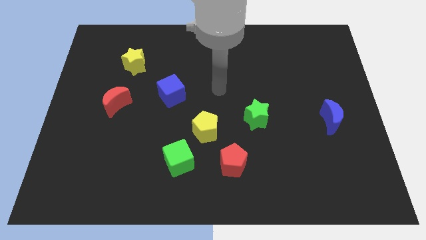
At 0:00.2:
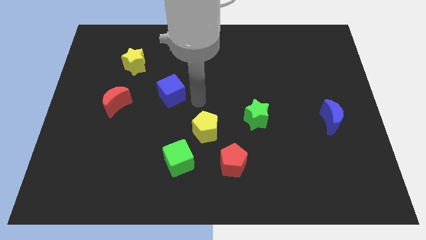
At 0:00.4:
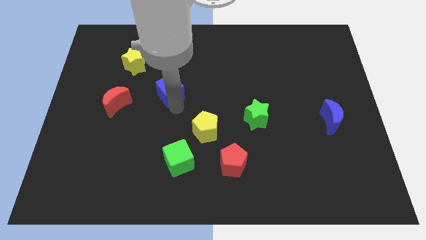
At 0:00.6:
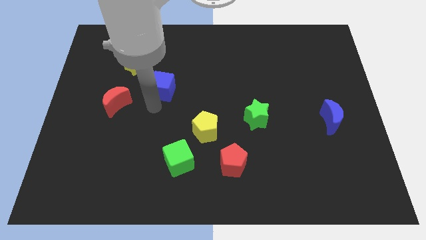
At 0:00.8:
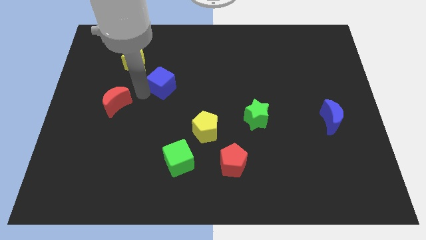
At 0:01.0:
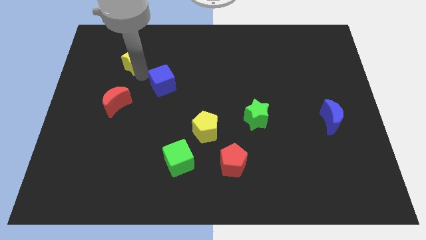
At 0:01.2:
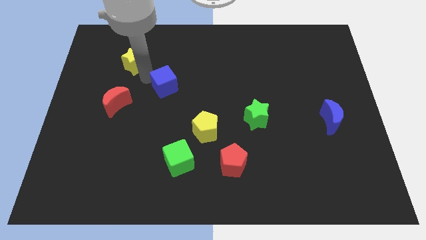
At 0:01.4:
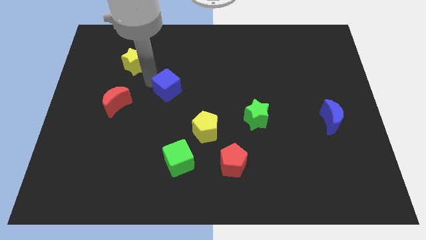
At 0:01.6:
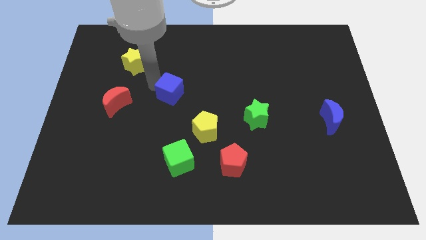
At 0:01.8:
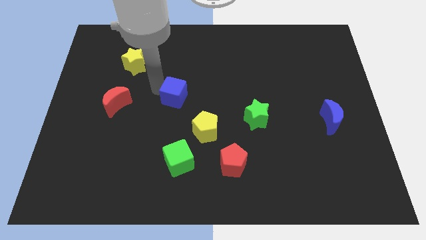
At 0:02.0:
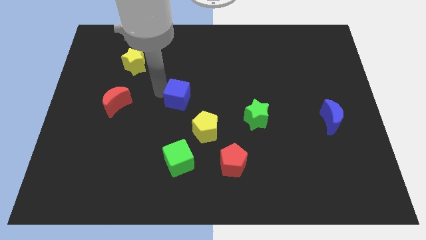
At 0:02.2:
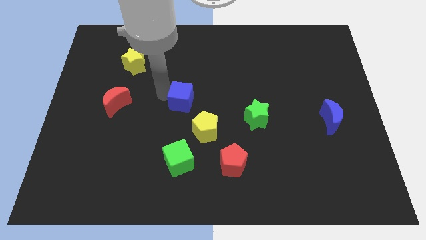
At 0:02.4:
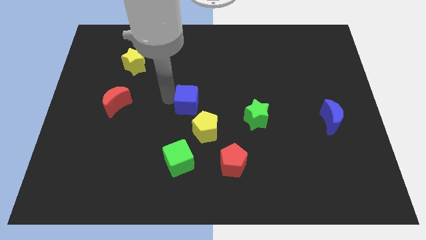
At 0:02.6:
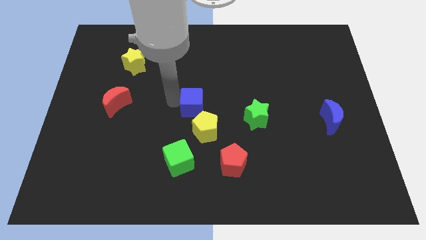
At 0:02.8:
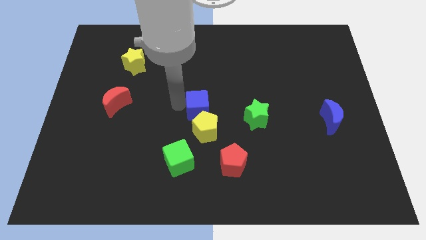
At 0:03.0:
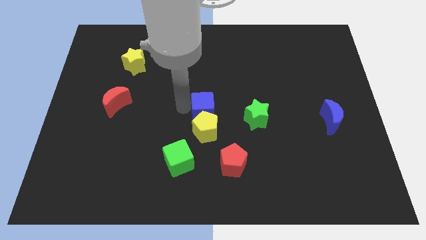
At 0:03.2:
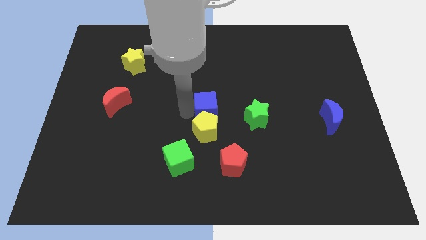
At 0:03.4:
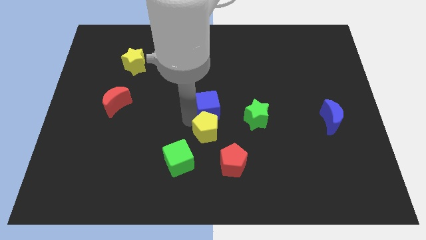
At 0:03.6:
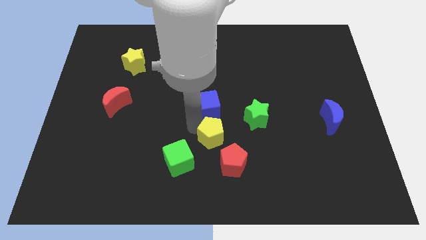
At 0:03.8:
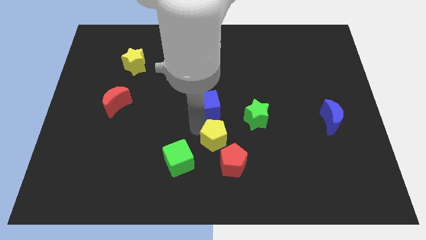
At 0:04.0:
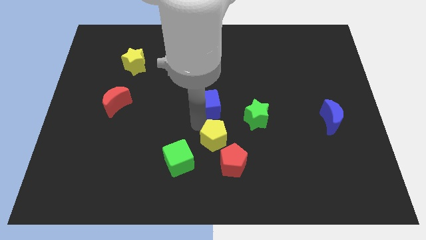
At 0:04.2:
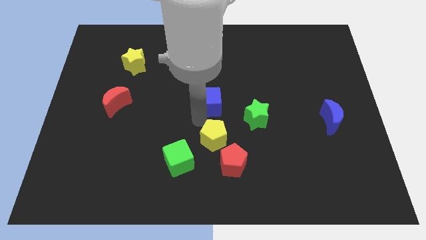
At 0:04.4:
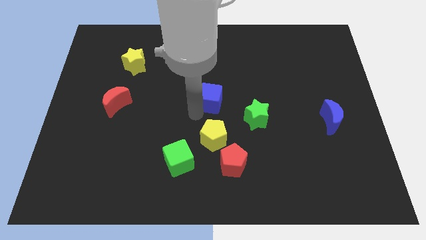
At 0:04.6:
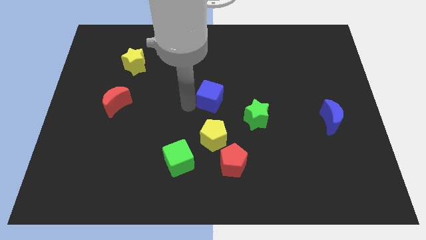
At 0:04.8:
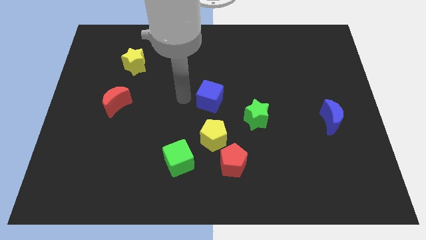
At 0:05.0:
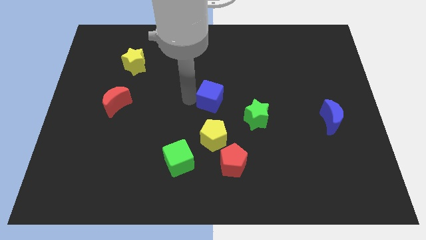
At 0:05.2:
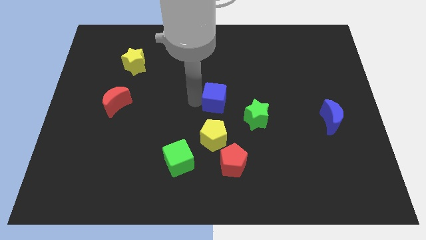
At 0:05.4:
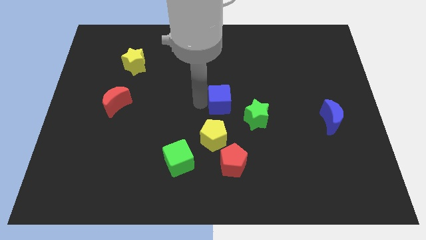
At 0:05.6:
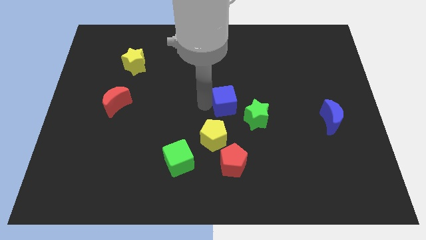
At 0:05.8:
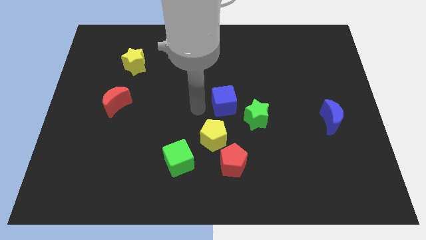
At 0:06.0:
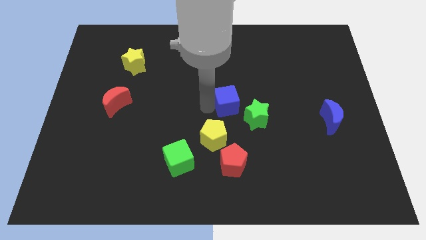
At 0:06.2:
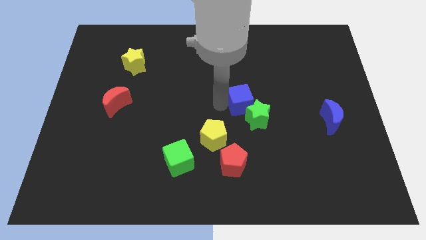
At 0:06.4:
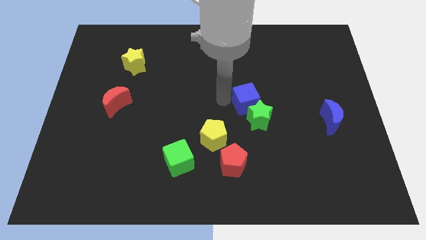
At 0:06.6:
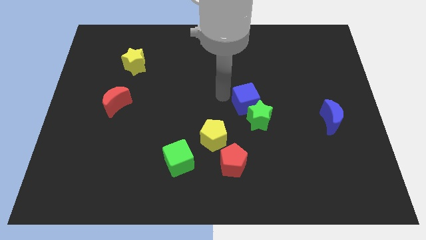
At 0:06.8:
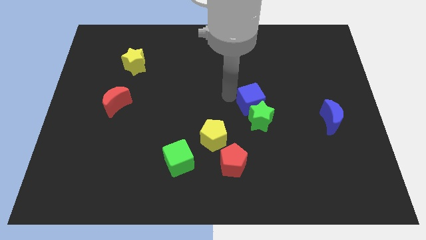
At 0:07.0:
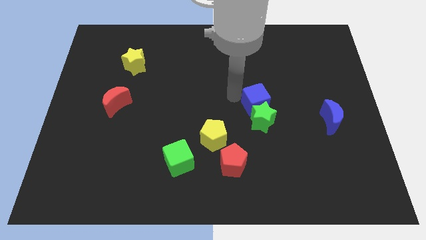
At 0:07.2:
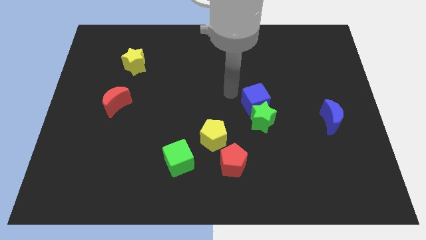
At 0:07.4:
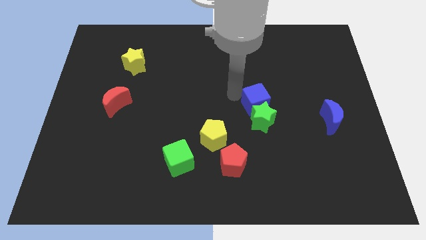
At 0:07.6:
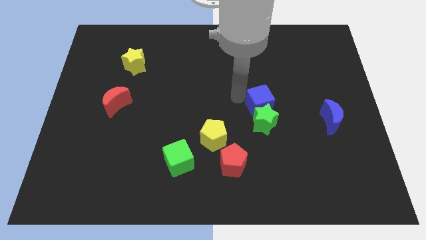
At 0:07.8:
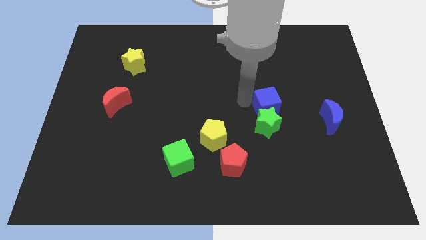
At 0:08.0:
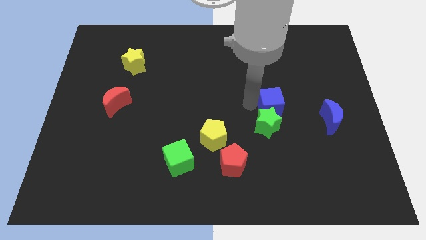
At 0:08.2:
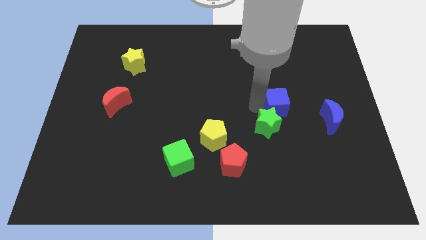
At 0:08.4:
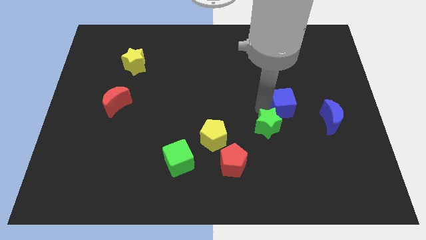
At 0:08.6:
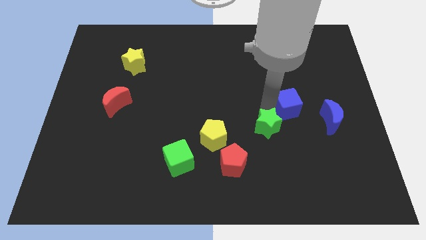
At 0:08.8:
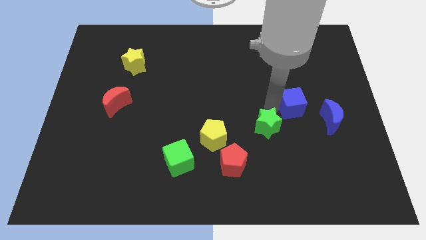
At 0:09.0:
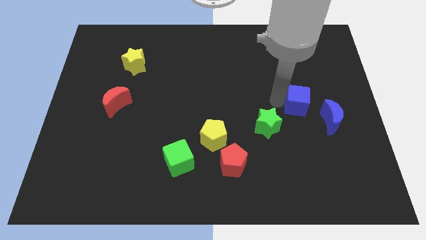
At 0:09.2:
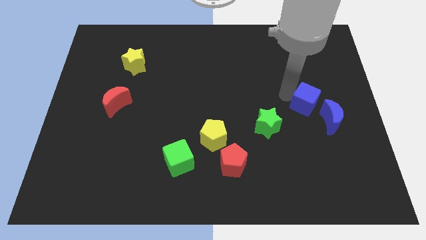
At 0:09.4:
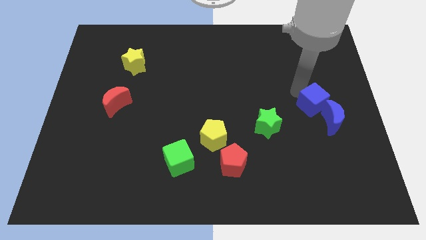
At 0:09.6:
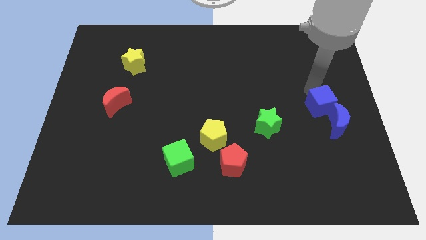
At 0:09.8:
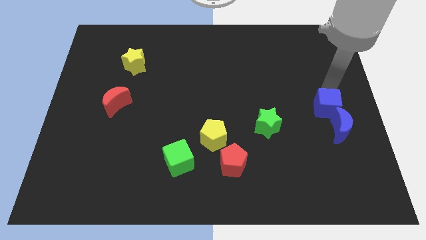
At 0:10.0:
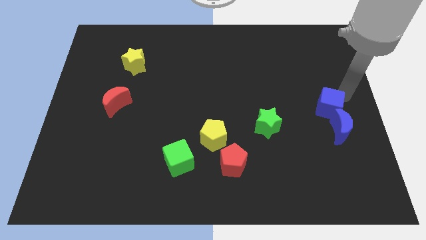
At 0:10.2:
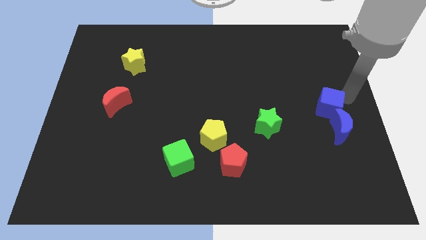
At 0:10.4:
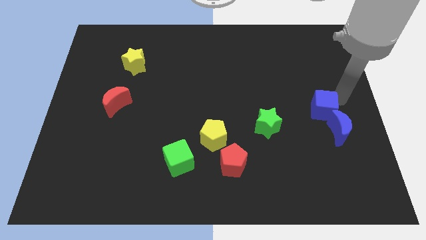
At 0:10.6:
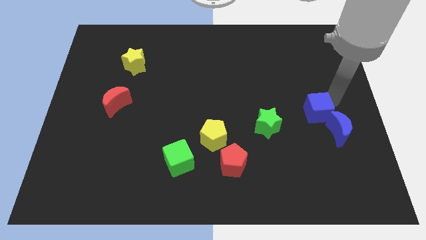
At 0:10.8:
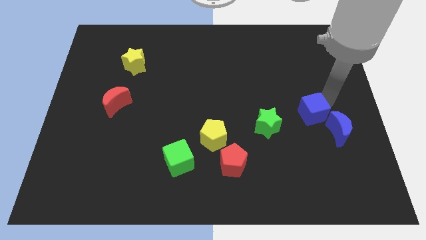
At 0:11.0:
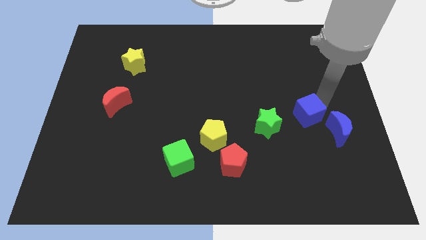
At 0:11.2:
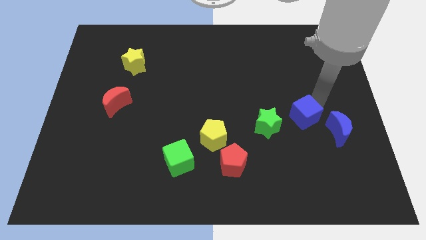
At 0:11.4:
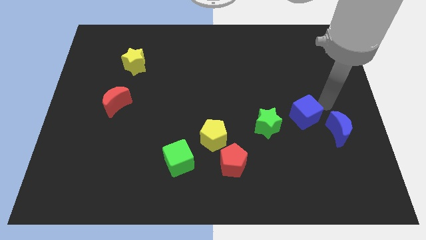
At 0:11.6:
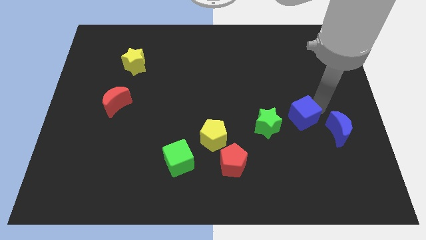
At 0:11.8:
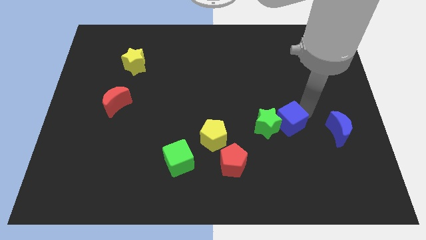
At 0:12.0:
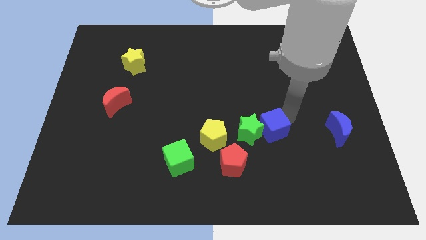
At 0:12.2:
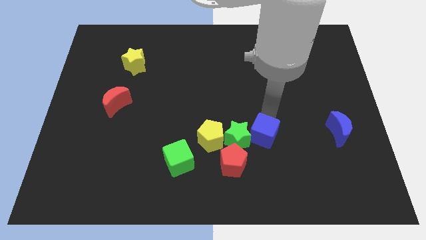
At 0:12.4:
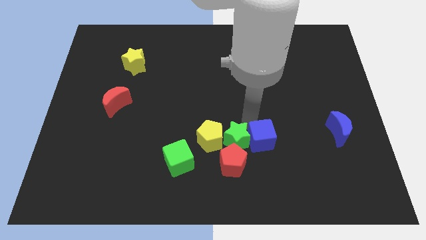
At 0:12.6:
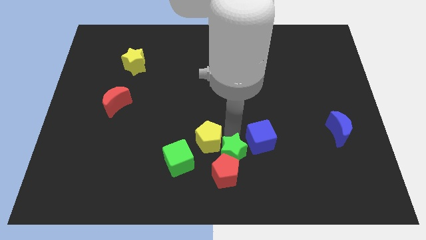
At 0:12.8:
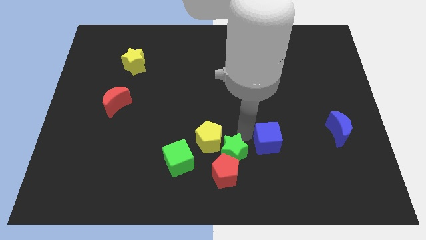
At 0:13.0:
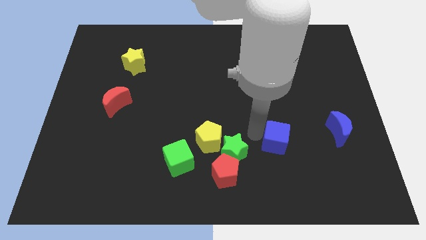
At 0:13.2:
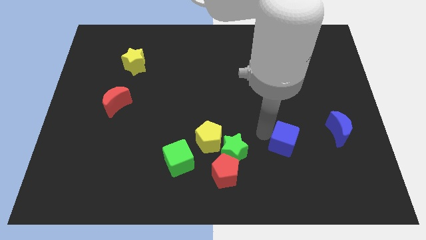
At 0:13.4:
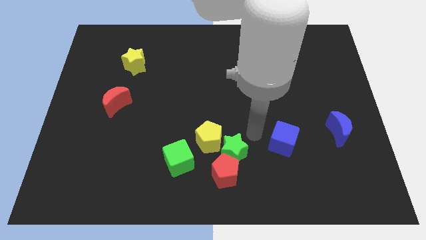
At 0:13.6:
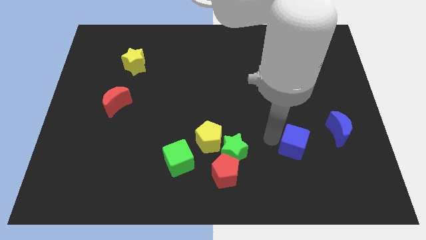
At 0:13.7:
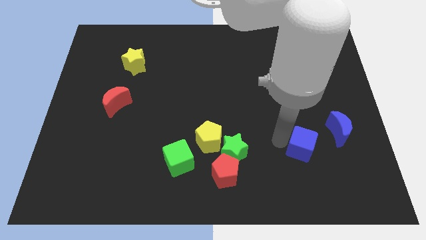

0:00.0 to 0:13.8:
put the blue cube to the bottom left side of the blue moon

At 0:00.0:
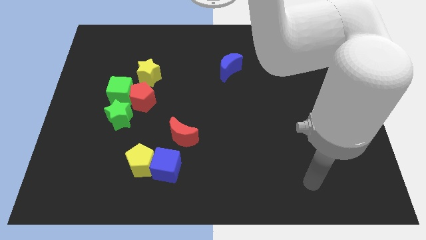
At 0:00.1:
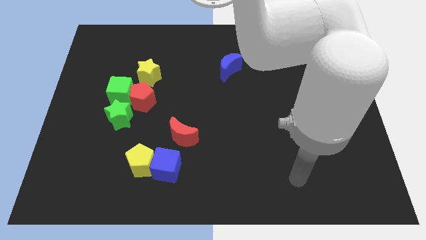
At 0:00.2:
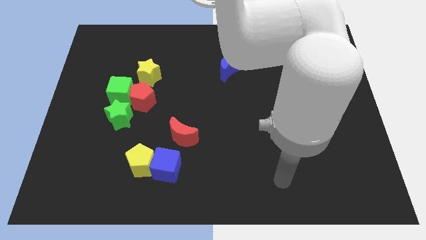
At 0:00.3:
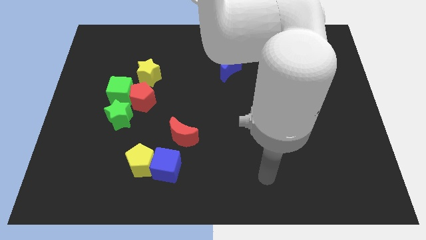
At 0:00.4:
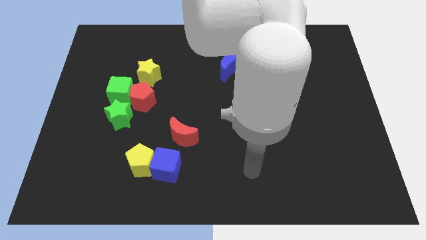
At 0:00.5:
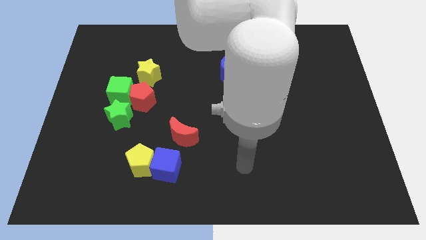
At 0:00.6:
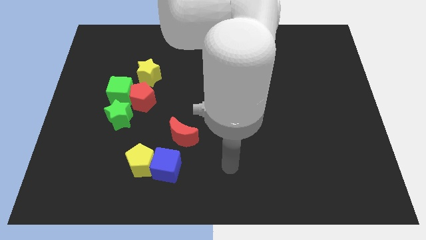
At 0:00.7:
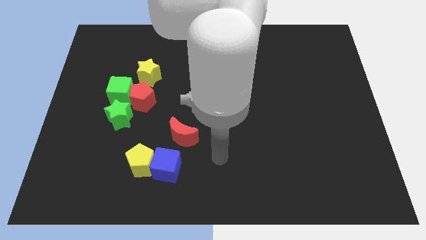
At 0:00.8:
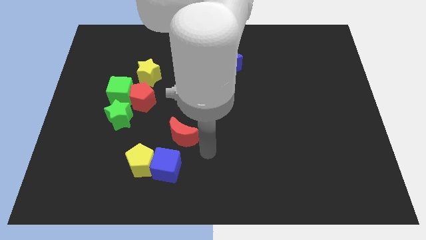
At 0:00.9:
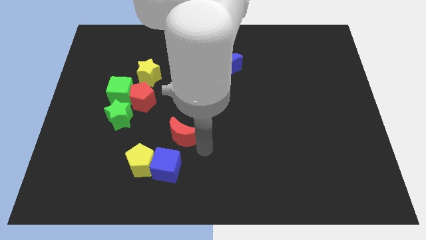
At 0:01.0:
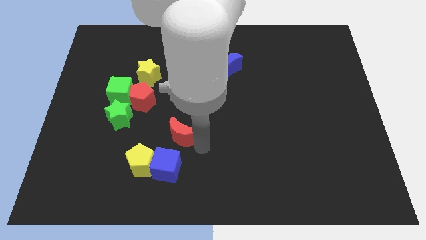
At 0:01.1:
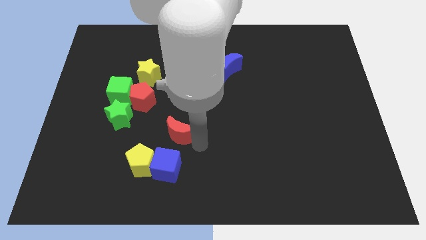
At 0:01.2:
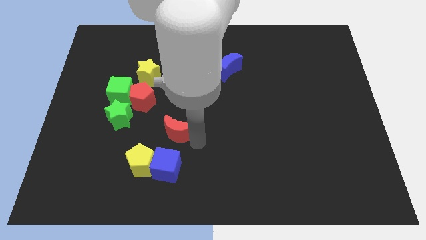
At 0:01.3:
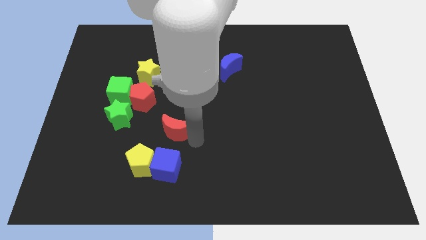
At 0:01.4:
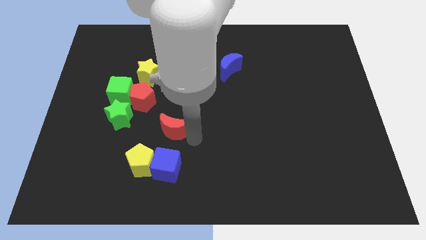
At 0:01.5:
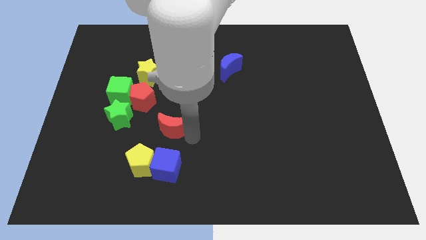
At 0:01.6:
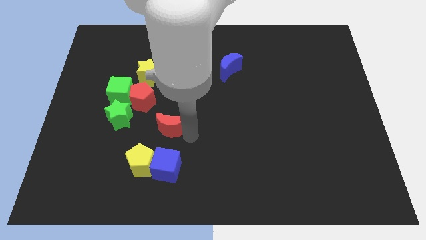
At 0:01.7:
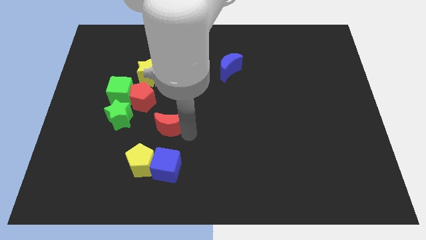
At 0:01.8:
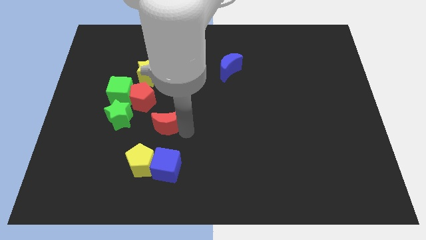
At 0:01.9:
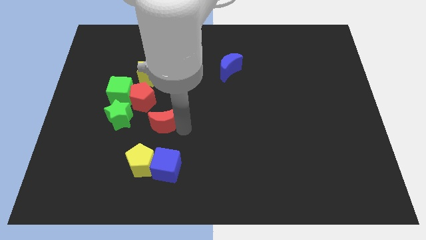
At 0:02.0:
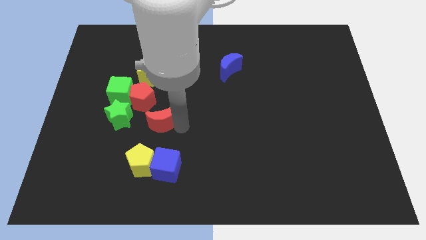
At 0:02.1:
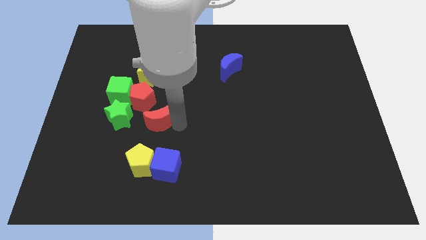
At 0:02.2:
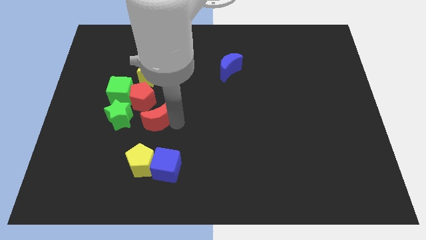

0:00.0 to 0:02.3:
move the red moon to the bottom right of the green cube
